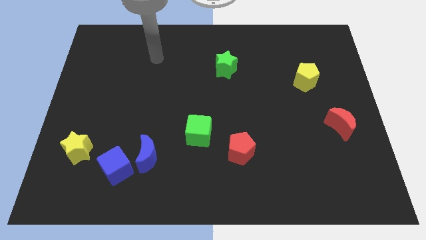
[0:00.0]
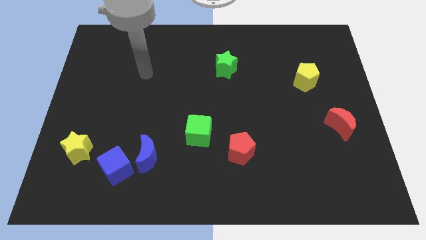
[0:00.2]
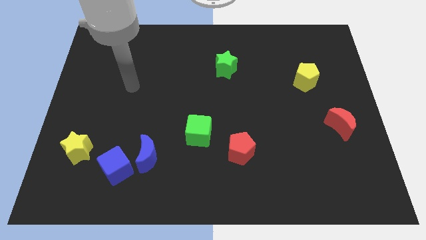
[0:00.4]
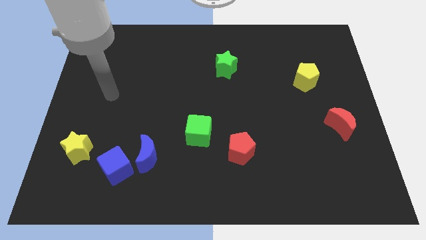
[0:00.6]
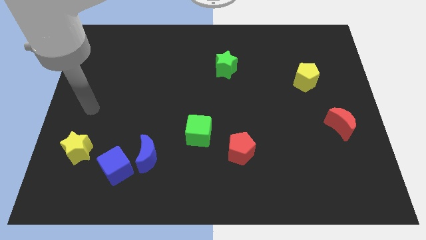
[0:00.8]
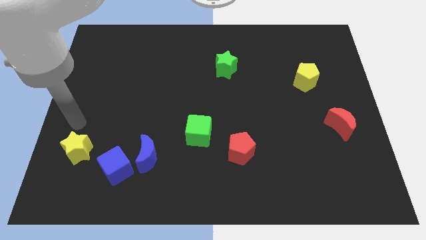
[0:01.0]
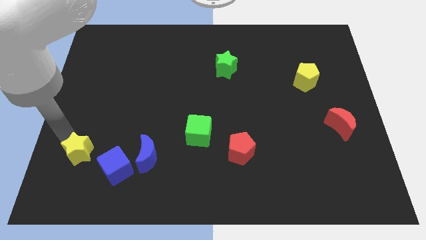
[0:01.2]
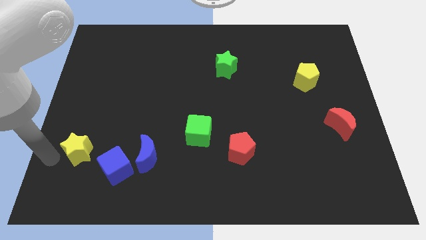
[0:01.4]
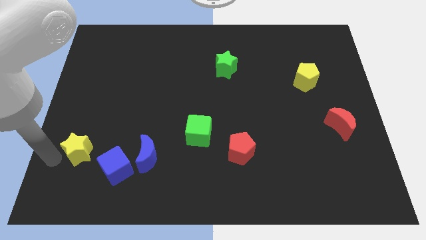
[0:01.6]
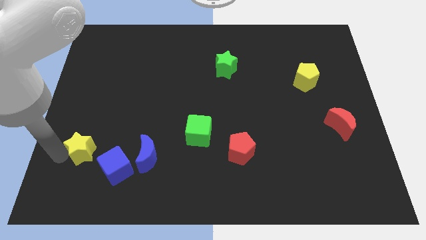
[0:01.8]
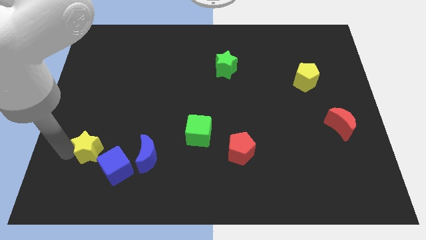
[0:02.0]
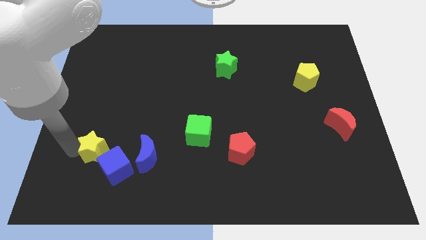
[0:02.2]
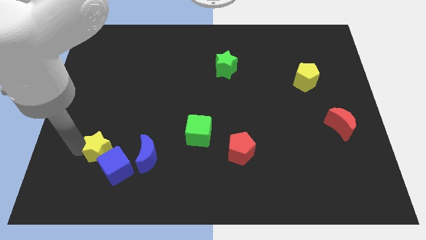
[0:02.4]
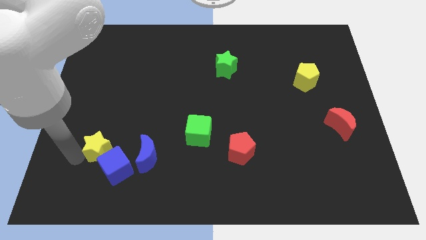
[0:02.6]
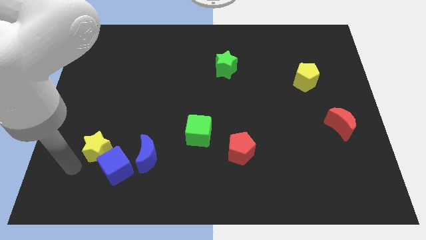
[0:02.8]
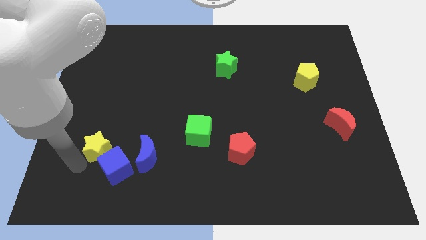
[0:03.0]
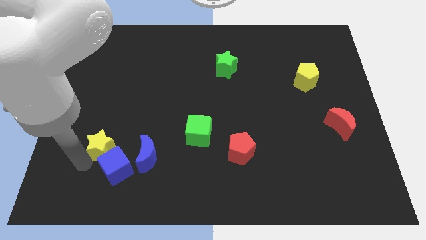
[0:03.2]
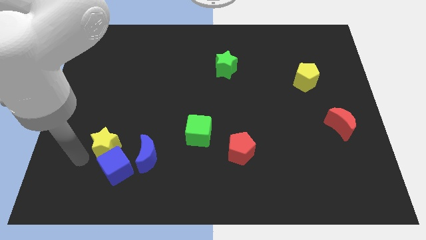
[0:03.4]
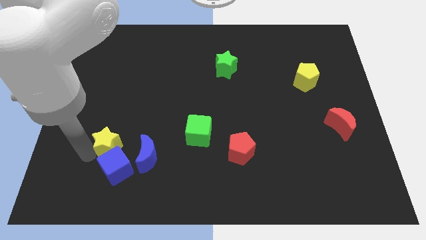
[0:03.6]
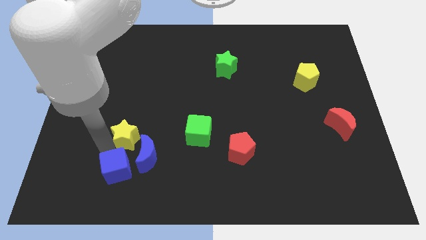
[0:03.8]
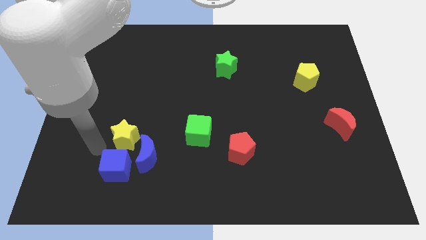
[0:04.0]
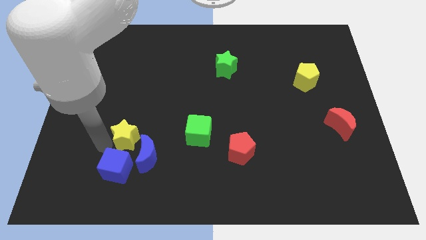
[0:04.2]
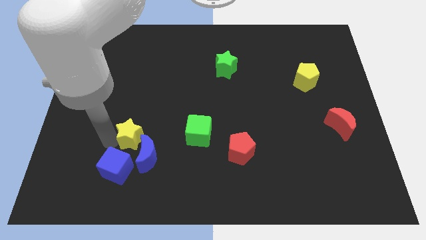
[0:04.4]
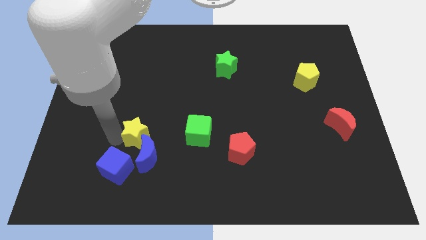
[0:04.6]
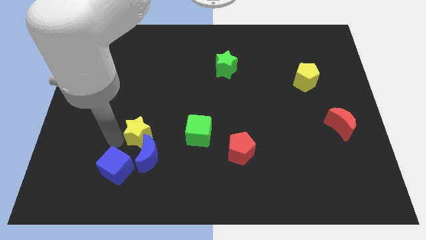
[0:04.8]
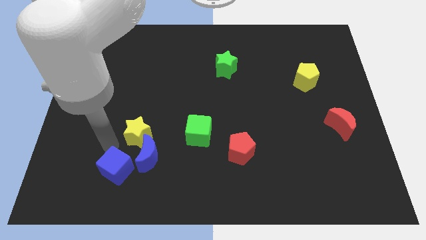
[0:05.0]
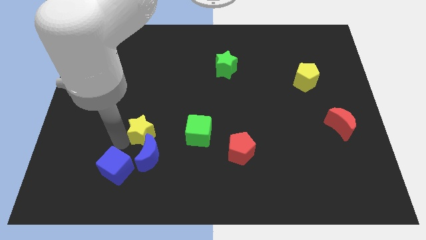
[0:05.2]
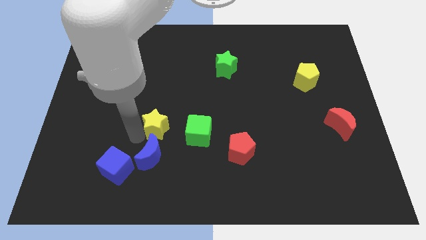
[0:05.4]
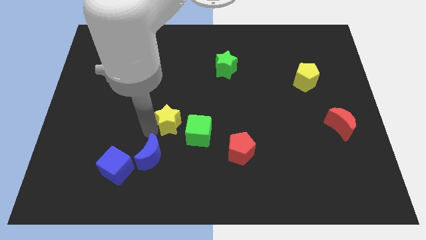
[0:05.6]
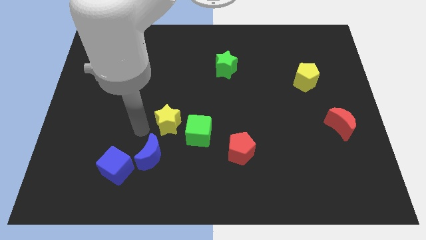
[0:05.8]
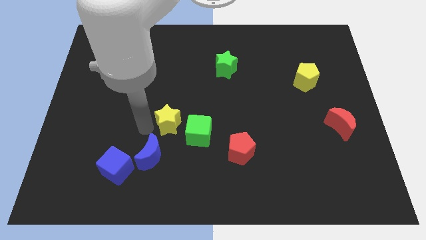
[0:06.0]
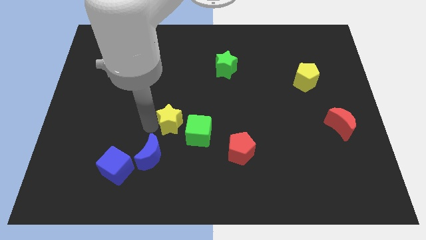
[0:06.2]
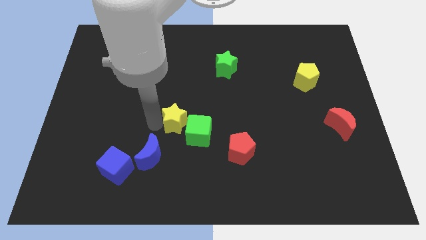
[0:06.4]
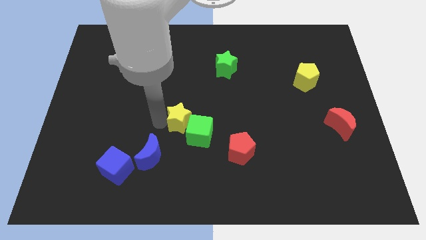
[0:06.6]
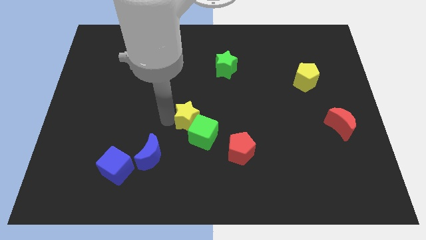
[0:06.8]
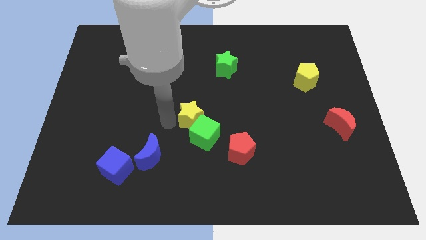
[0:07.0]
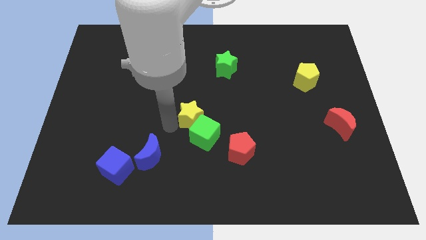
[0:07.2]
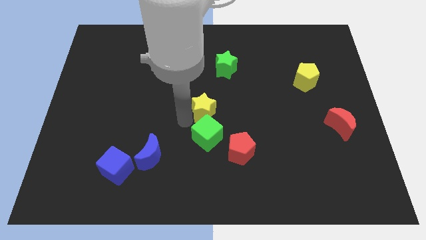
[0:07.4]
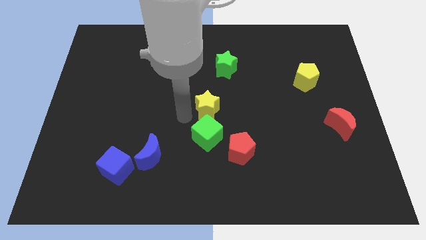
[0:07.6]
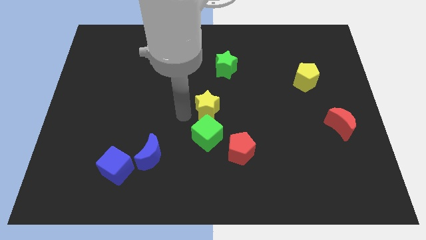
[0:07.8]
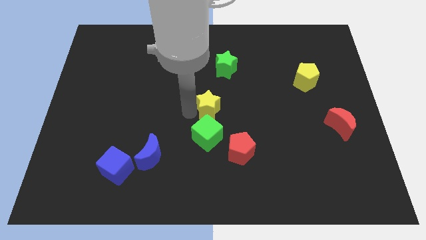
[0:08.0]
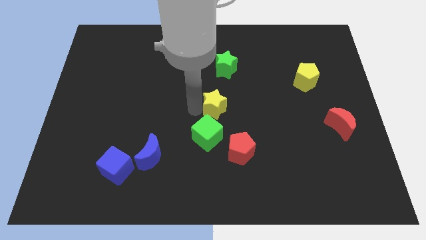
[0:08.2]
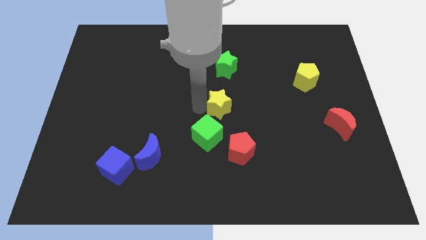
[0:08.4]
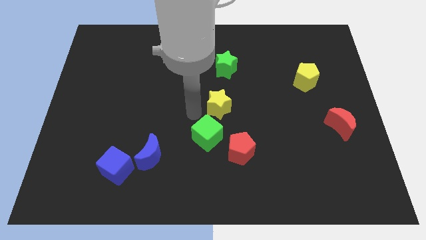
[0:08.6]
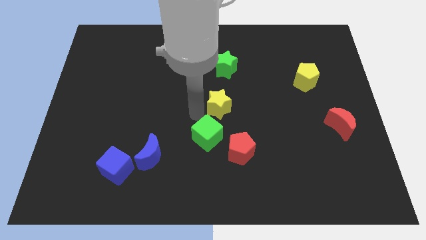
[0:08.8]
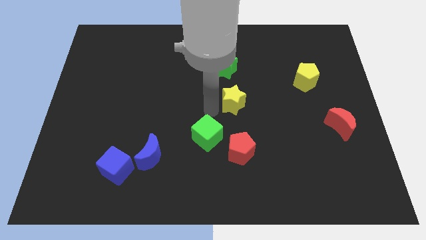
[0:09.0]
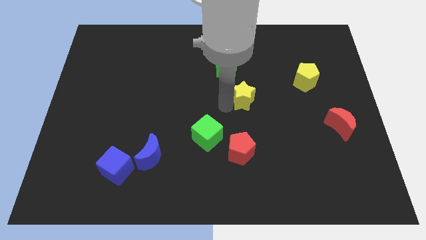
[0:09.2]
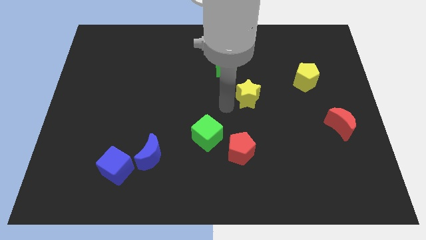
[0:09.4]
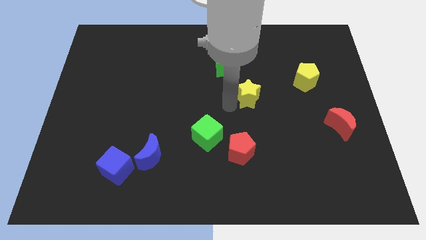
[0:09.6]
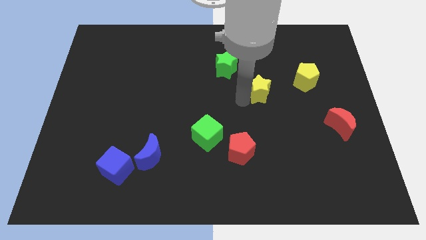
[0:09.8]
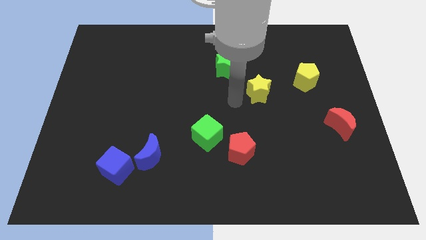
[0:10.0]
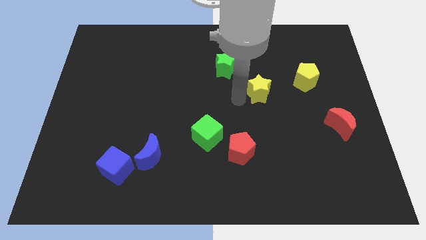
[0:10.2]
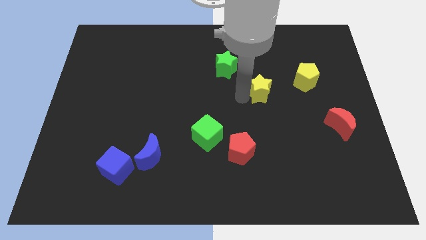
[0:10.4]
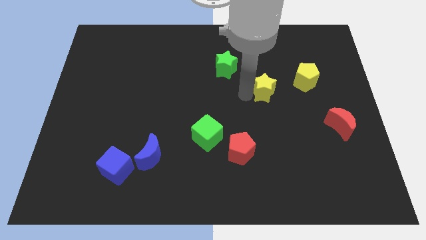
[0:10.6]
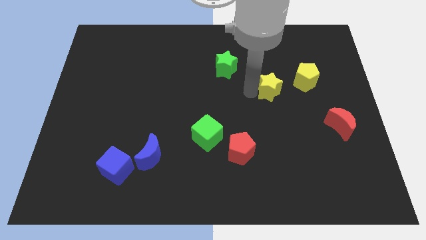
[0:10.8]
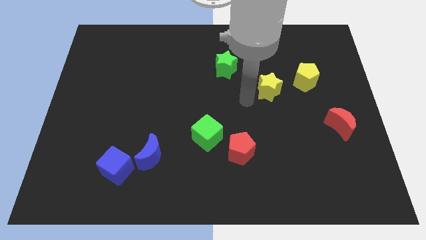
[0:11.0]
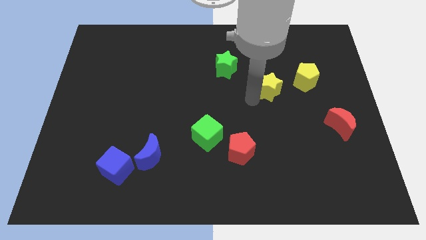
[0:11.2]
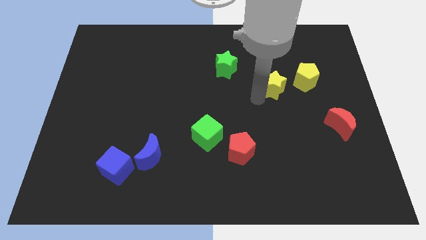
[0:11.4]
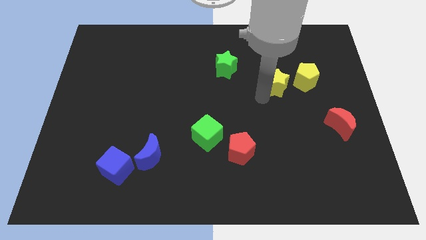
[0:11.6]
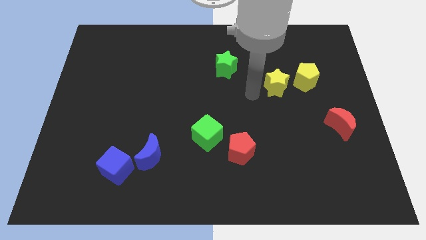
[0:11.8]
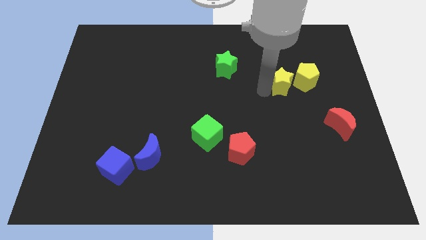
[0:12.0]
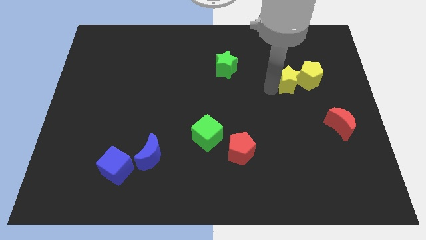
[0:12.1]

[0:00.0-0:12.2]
move the yellow star next to the yellow pentagon
